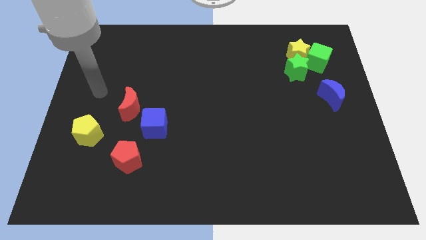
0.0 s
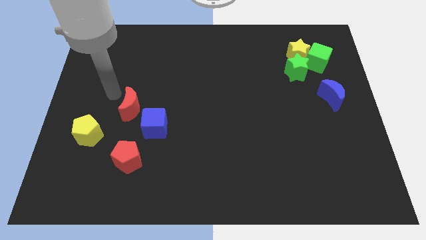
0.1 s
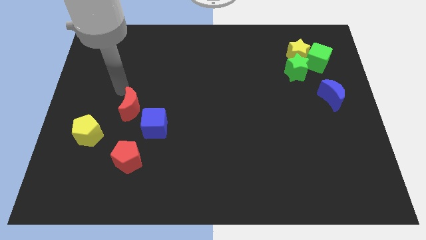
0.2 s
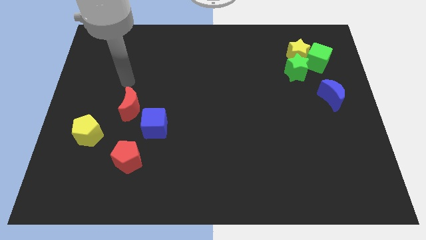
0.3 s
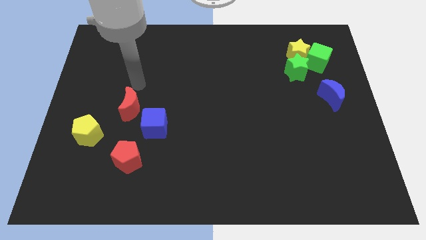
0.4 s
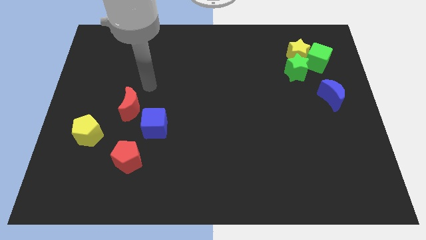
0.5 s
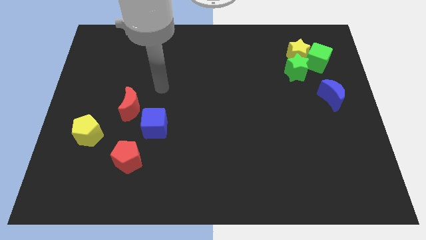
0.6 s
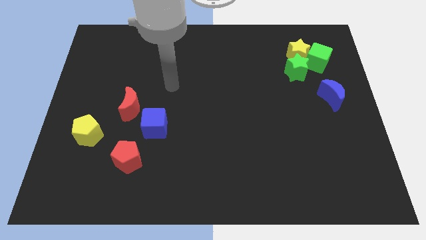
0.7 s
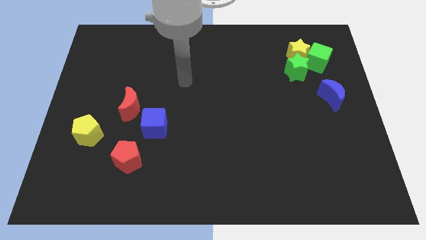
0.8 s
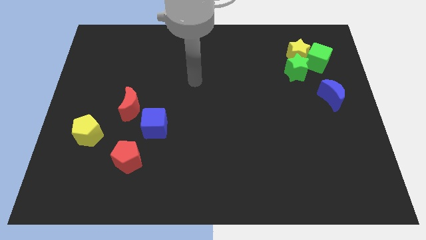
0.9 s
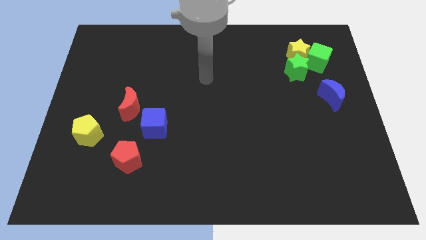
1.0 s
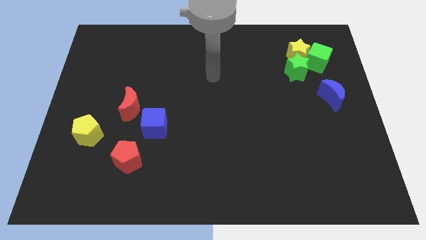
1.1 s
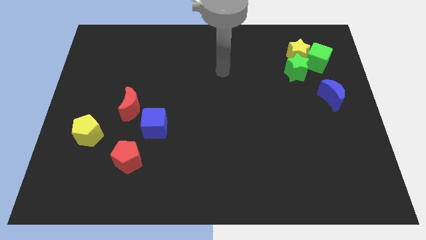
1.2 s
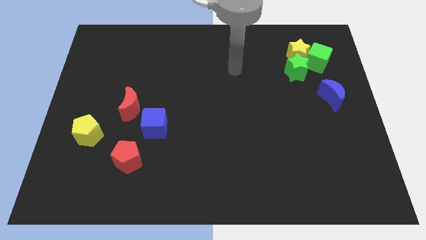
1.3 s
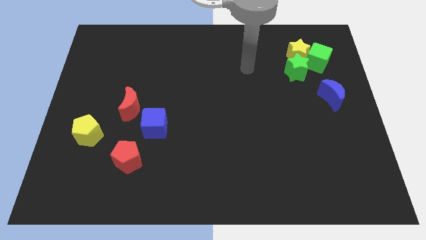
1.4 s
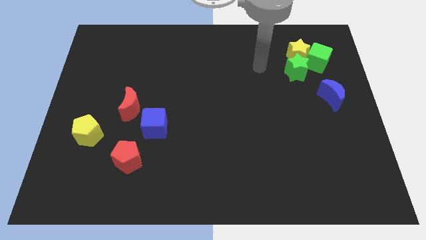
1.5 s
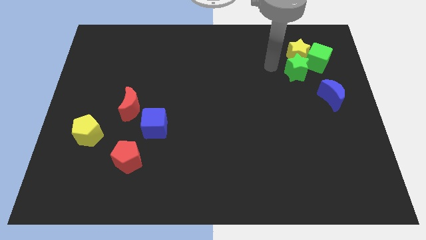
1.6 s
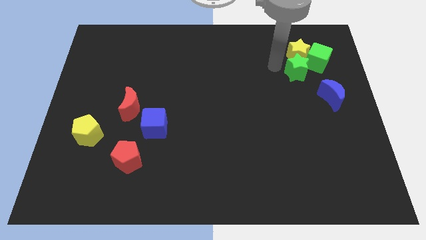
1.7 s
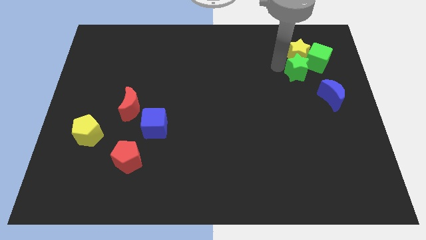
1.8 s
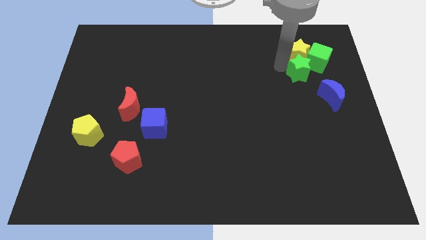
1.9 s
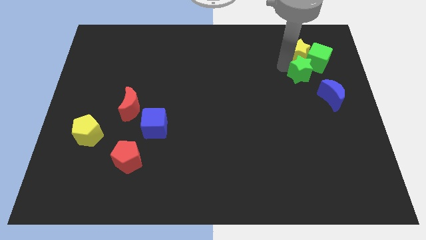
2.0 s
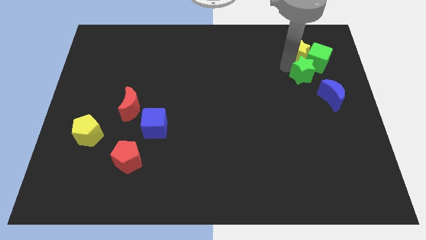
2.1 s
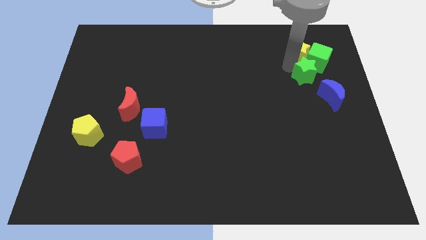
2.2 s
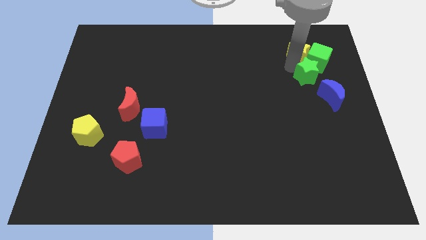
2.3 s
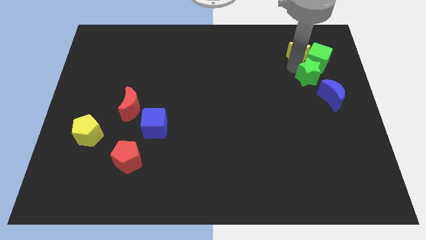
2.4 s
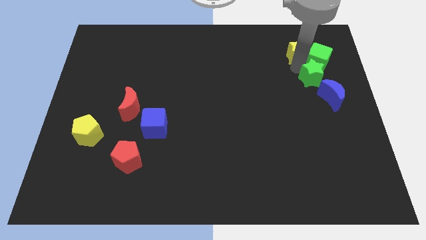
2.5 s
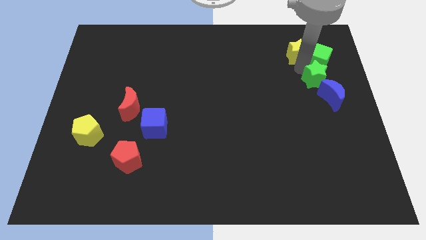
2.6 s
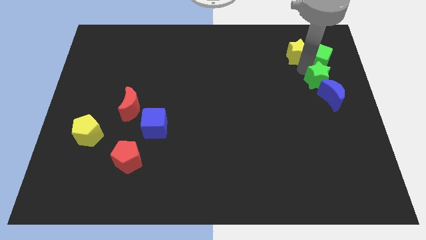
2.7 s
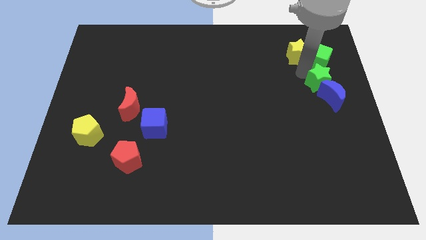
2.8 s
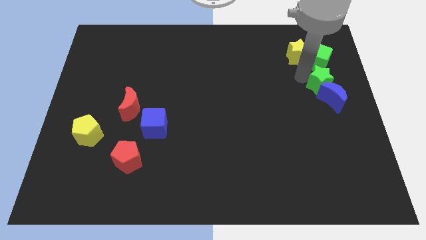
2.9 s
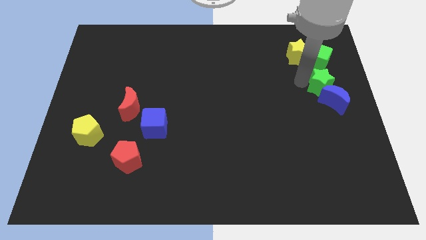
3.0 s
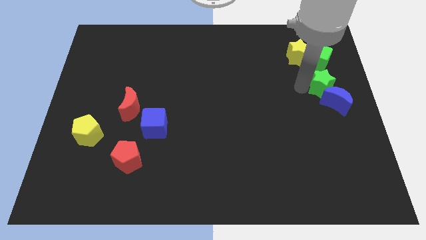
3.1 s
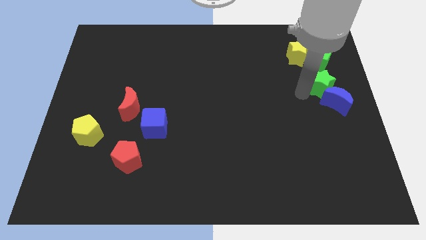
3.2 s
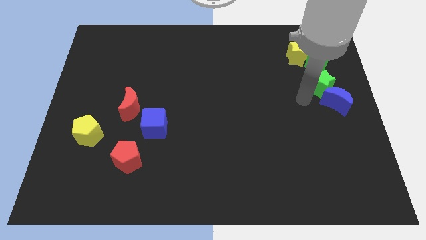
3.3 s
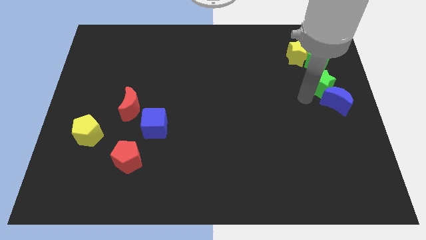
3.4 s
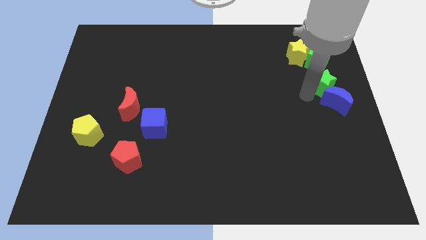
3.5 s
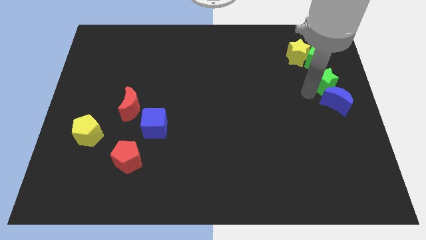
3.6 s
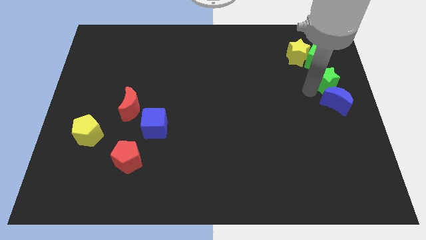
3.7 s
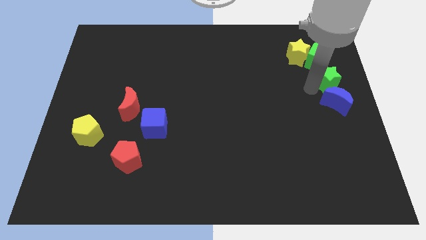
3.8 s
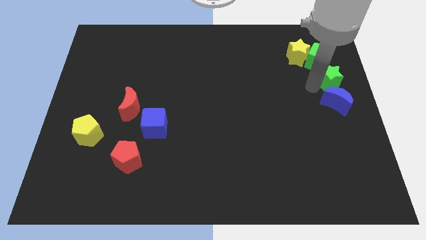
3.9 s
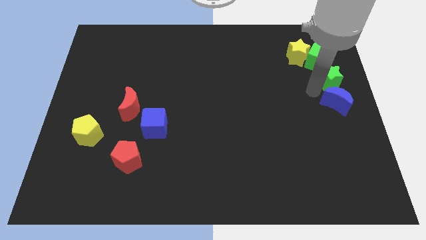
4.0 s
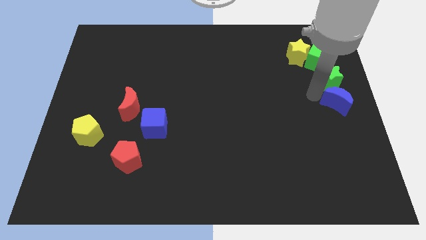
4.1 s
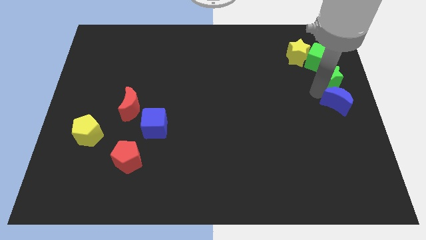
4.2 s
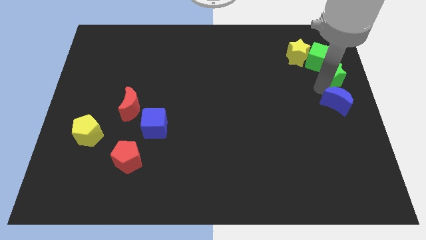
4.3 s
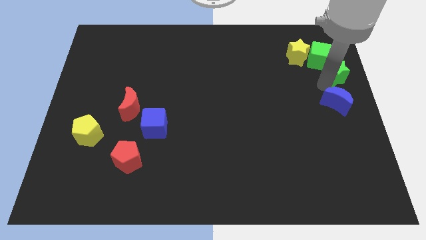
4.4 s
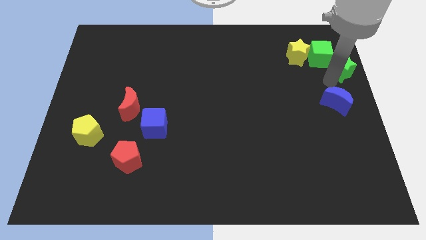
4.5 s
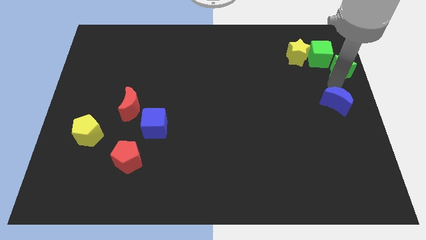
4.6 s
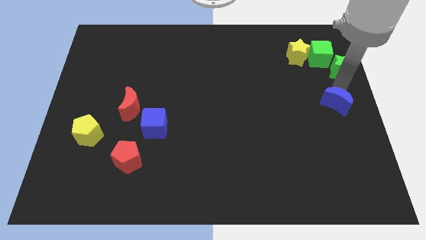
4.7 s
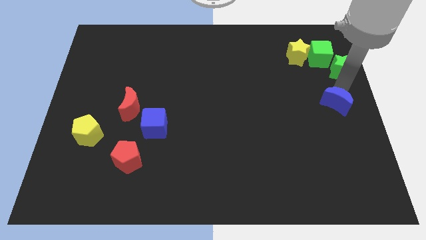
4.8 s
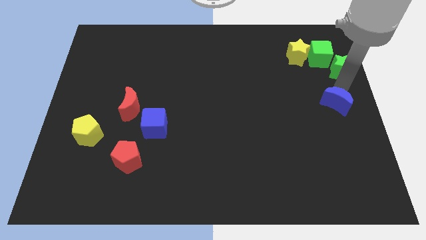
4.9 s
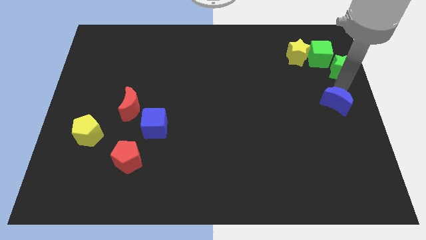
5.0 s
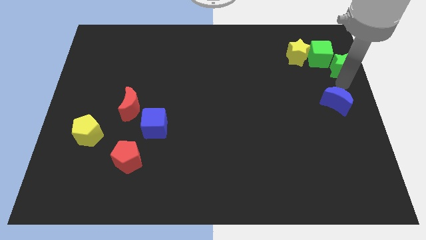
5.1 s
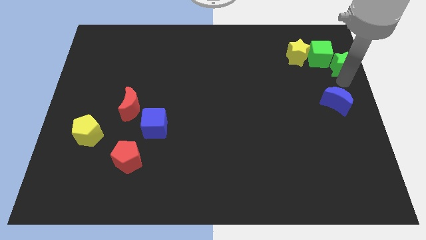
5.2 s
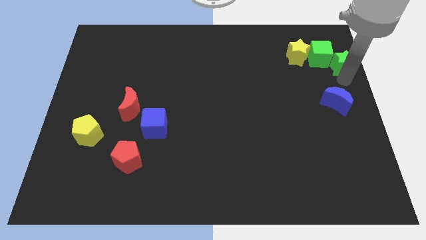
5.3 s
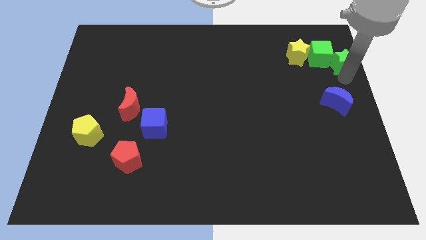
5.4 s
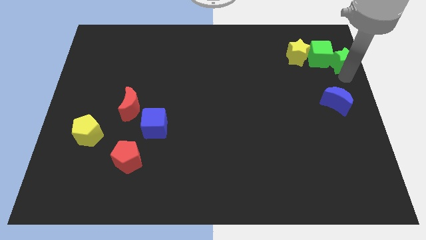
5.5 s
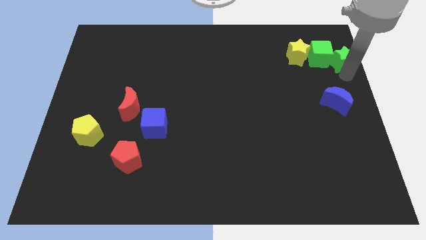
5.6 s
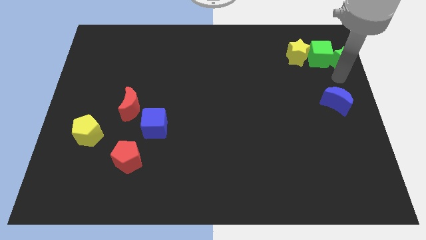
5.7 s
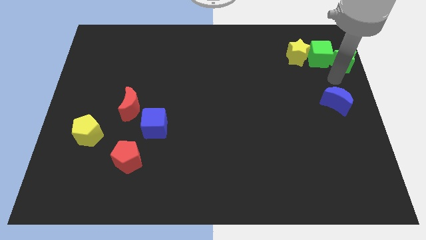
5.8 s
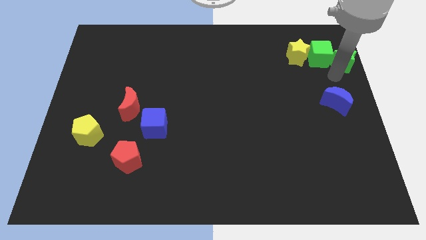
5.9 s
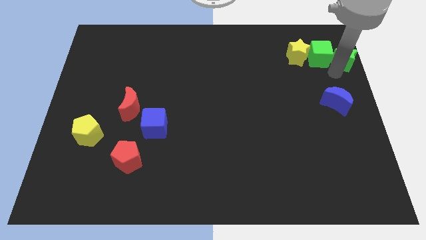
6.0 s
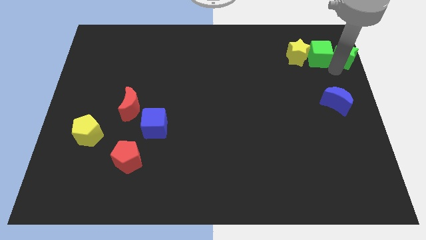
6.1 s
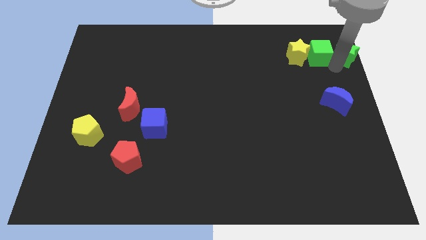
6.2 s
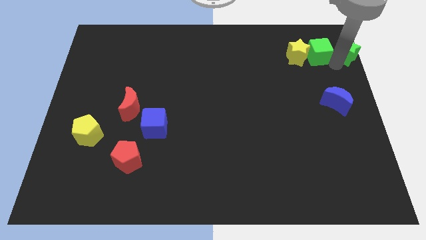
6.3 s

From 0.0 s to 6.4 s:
slide the green star to the top right
